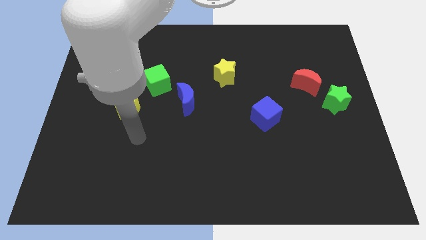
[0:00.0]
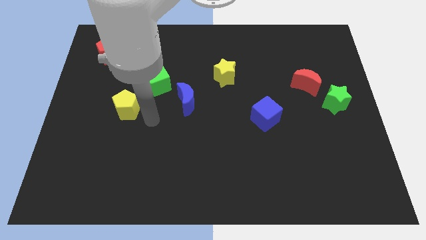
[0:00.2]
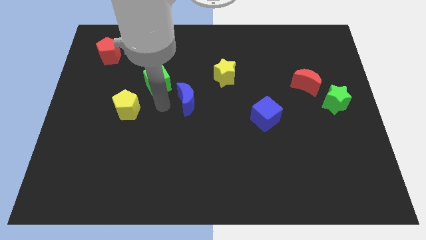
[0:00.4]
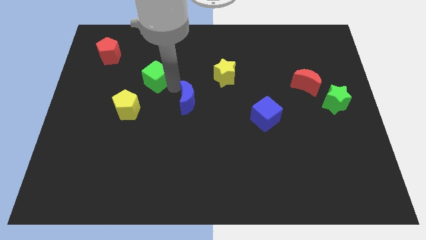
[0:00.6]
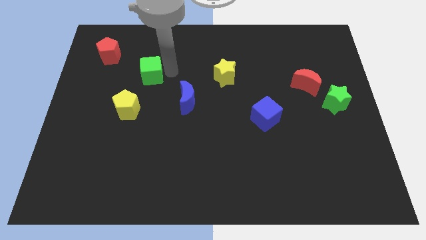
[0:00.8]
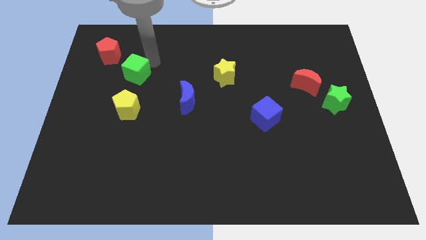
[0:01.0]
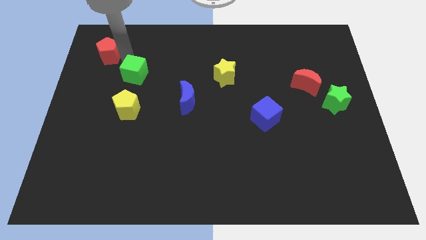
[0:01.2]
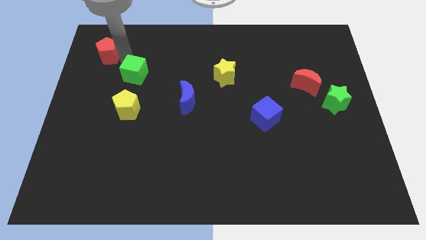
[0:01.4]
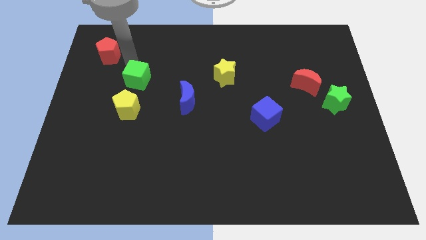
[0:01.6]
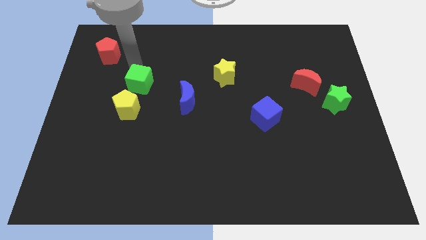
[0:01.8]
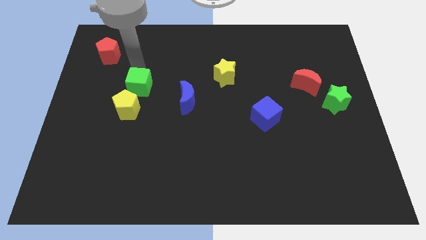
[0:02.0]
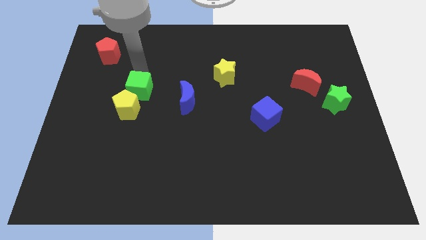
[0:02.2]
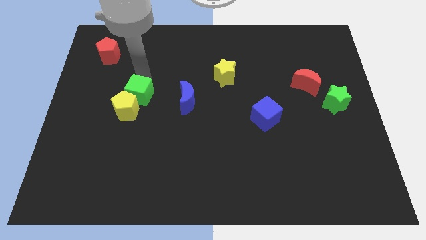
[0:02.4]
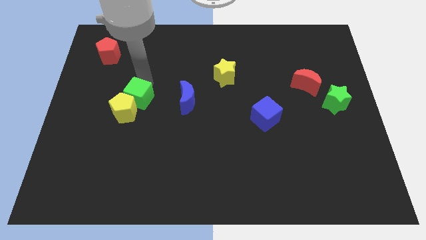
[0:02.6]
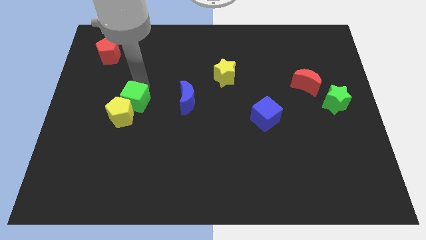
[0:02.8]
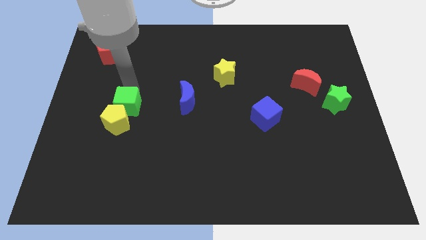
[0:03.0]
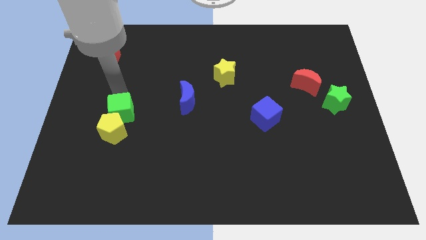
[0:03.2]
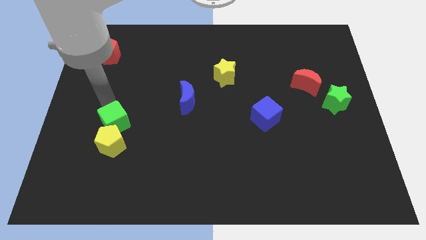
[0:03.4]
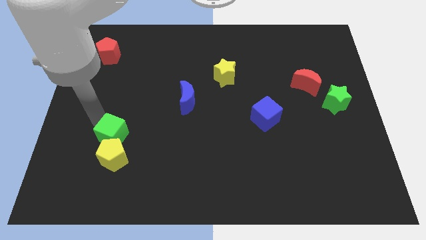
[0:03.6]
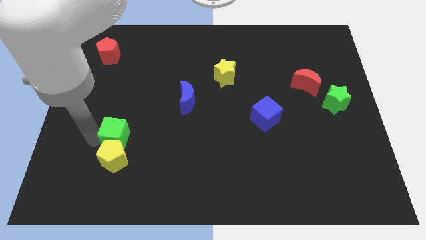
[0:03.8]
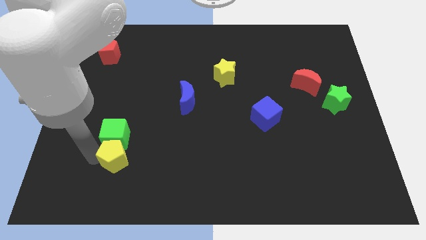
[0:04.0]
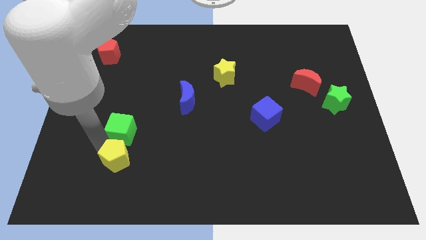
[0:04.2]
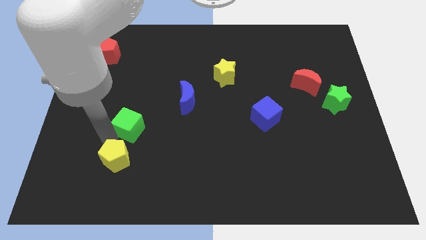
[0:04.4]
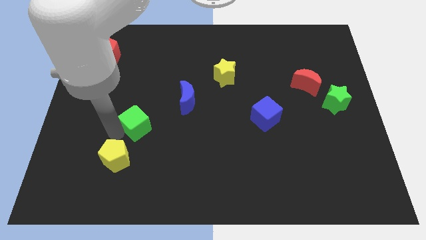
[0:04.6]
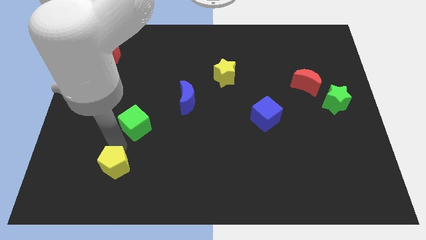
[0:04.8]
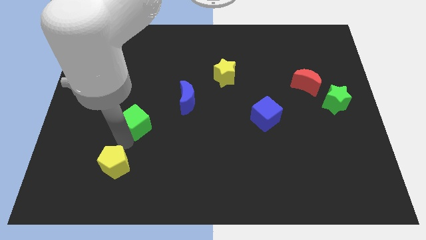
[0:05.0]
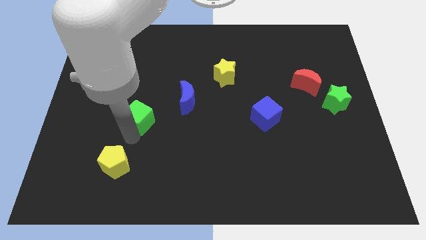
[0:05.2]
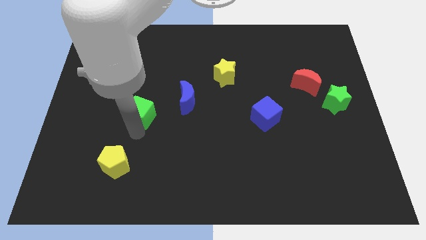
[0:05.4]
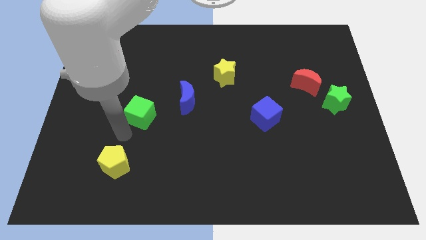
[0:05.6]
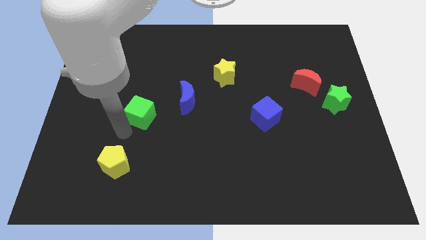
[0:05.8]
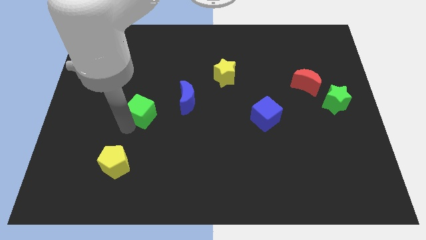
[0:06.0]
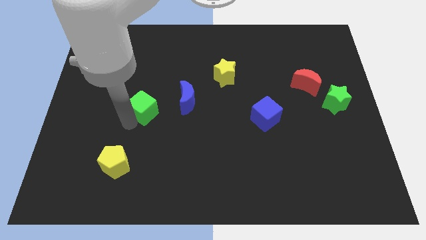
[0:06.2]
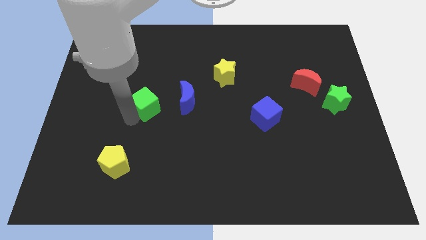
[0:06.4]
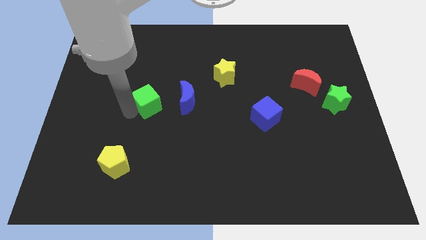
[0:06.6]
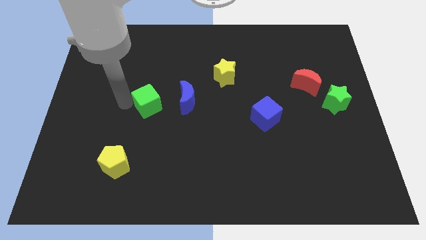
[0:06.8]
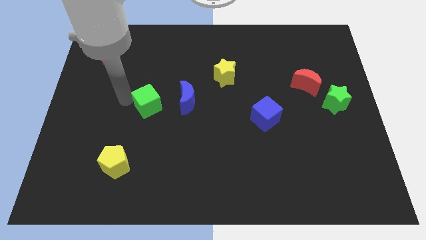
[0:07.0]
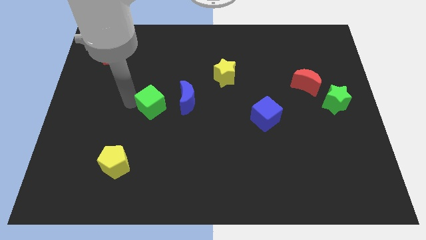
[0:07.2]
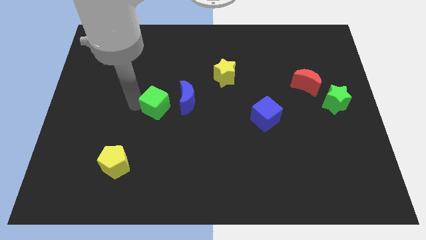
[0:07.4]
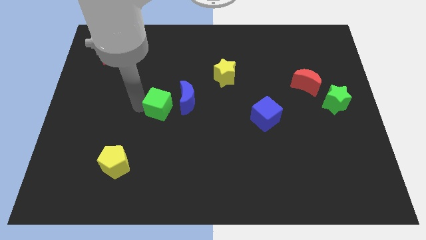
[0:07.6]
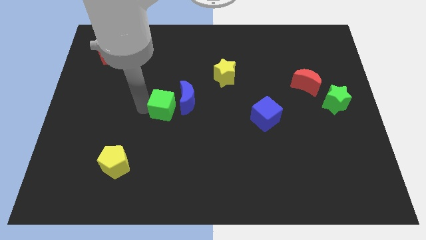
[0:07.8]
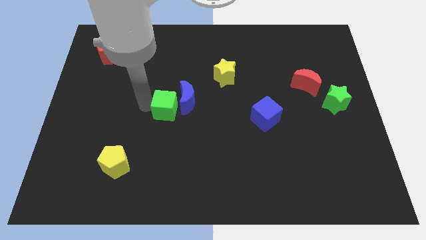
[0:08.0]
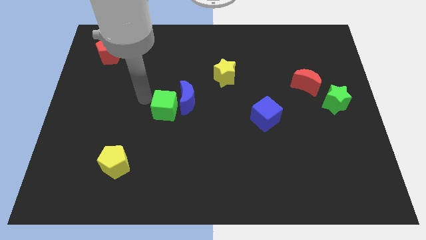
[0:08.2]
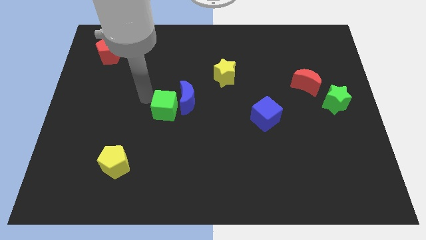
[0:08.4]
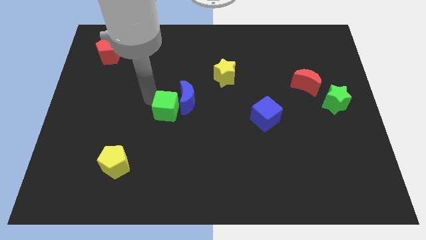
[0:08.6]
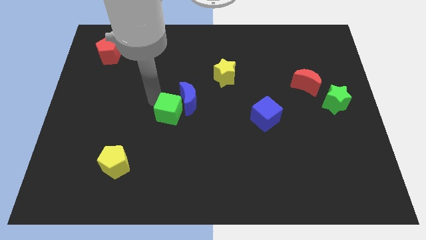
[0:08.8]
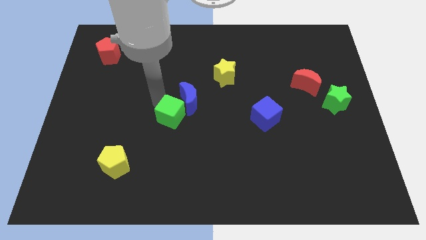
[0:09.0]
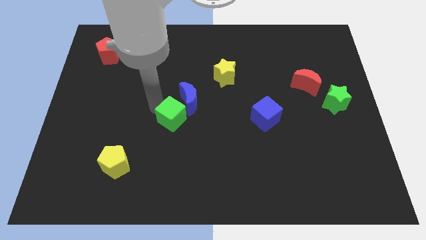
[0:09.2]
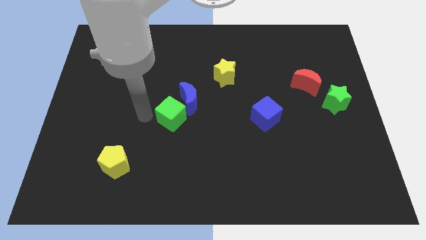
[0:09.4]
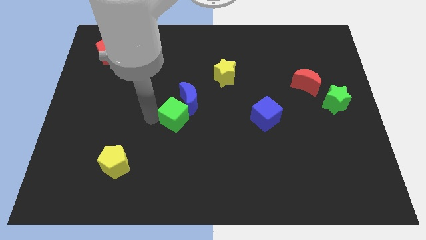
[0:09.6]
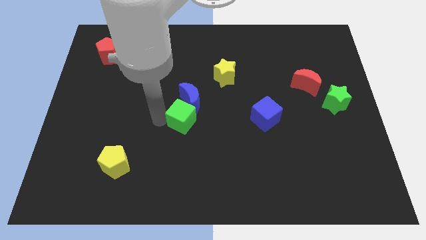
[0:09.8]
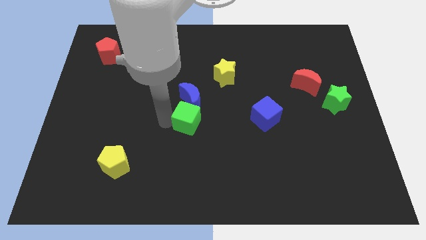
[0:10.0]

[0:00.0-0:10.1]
slide the green cube to the bottom right of the blue moon

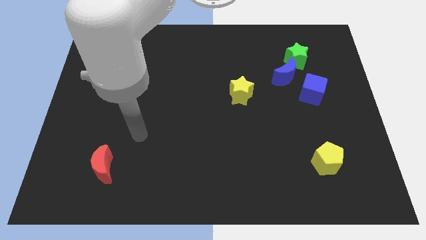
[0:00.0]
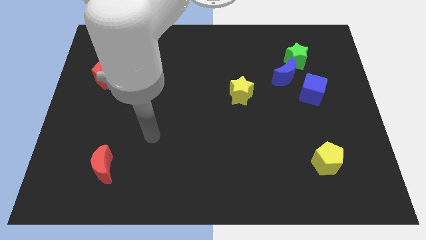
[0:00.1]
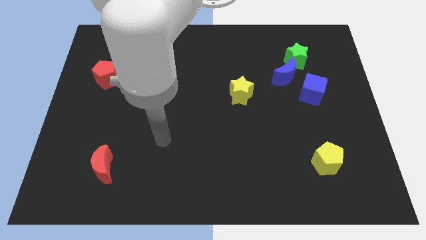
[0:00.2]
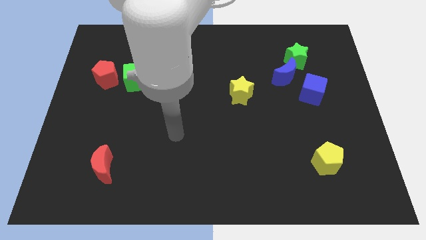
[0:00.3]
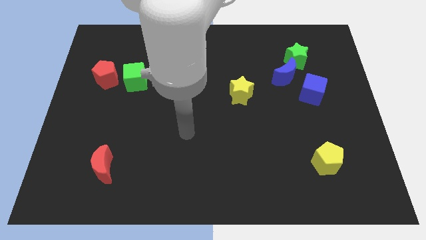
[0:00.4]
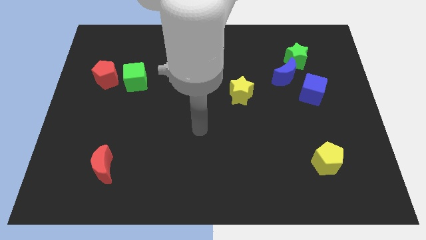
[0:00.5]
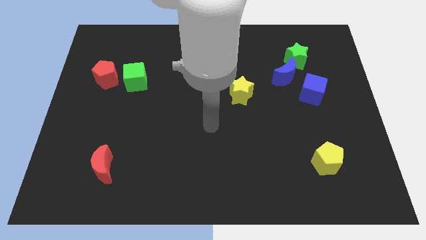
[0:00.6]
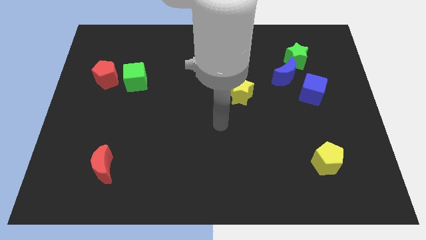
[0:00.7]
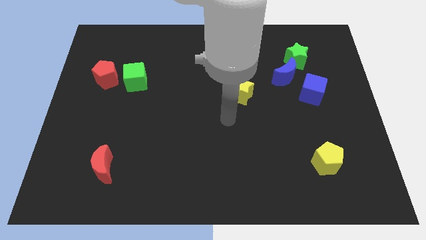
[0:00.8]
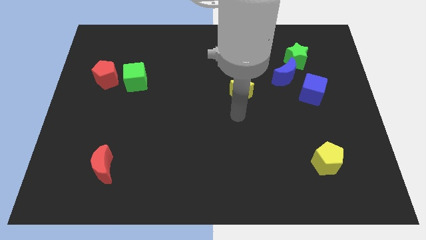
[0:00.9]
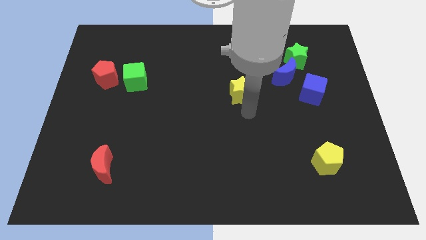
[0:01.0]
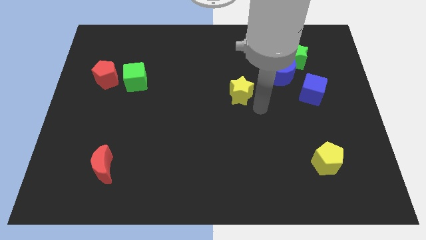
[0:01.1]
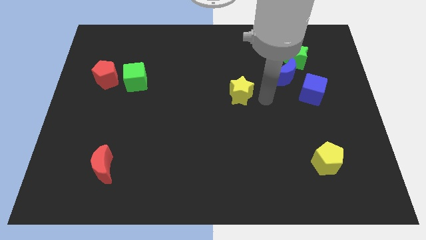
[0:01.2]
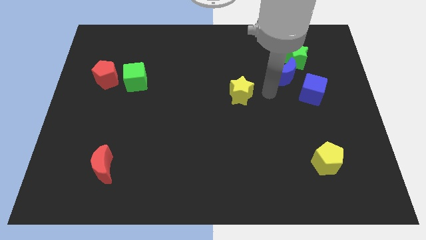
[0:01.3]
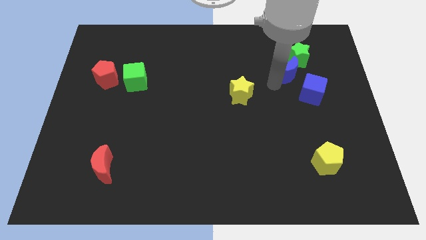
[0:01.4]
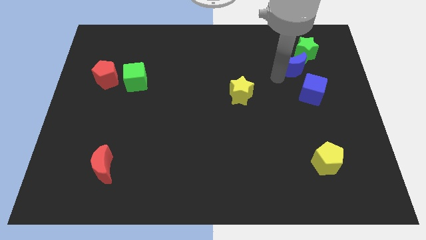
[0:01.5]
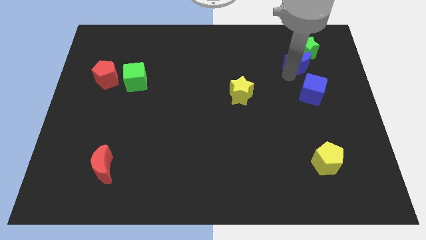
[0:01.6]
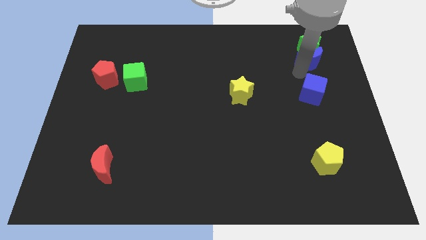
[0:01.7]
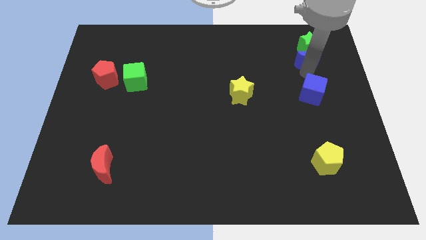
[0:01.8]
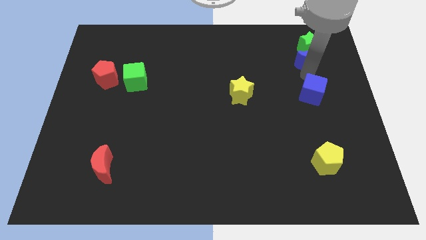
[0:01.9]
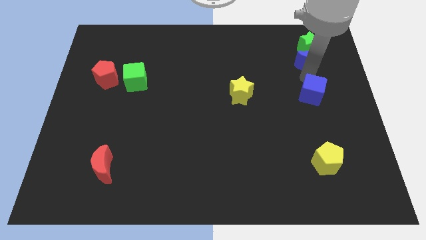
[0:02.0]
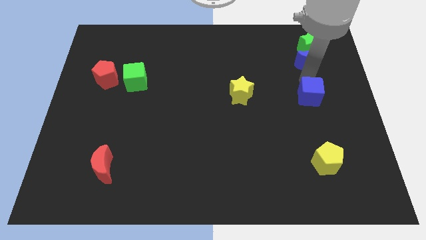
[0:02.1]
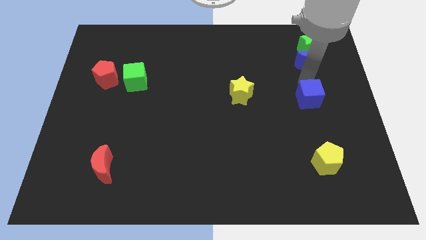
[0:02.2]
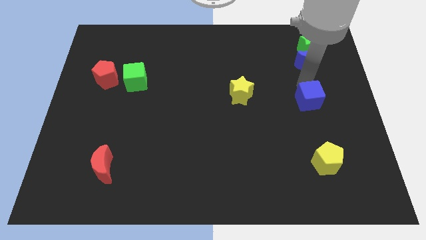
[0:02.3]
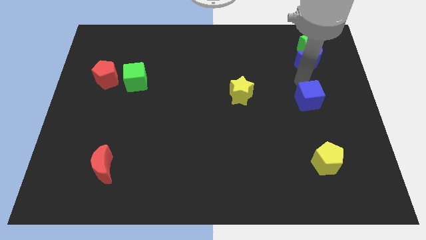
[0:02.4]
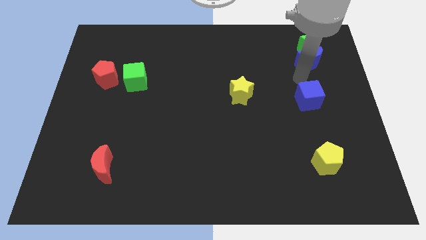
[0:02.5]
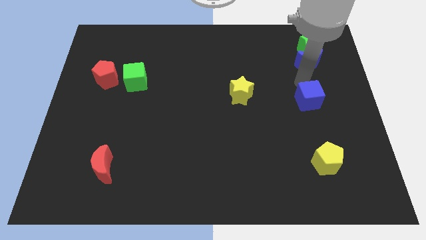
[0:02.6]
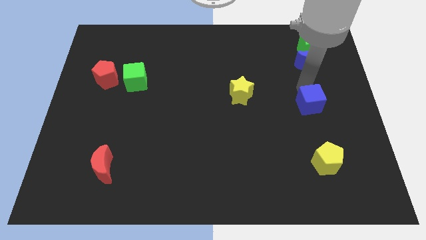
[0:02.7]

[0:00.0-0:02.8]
push the blue cube above the yellow pentagon
